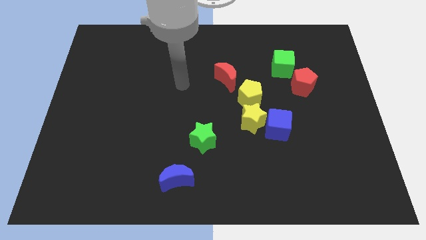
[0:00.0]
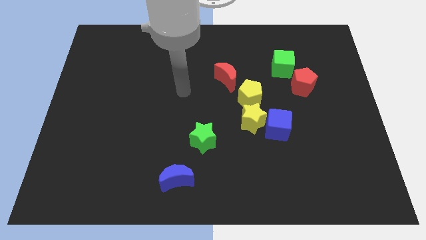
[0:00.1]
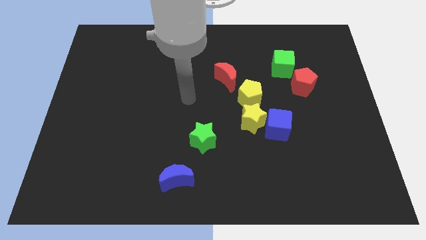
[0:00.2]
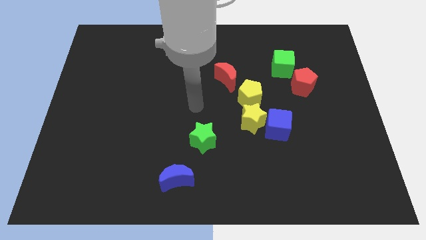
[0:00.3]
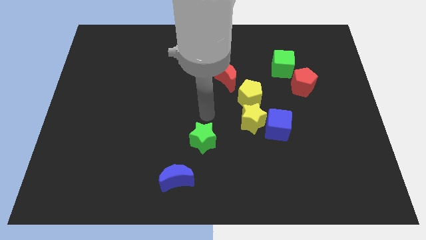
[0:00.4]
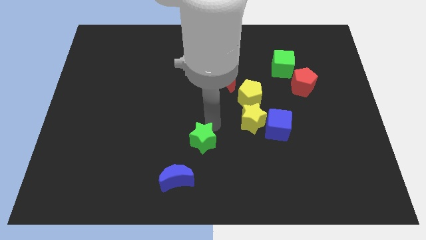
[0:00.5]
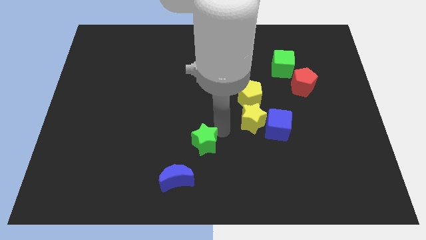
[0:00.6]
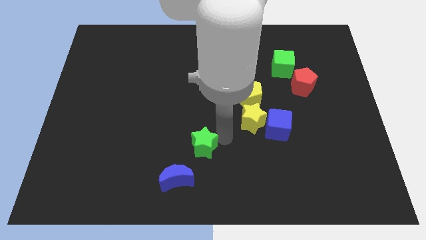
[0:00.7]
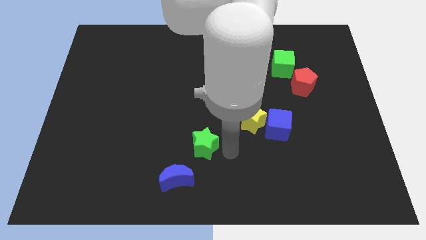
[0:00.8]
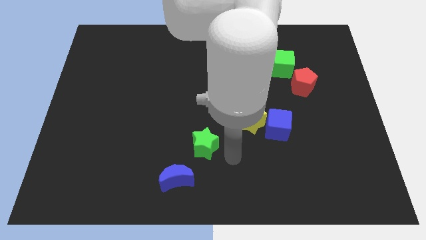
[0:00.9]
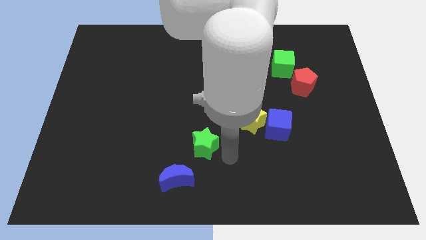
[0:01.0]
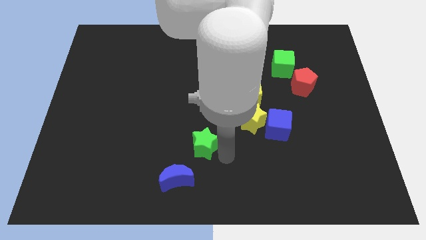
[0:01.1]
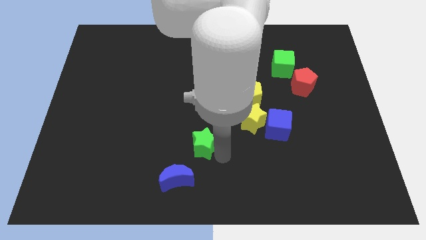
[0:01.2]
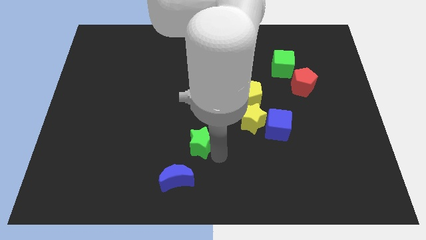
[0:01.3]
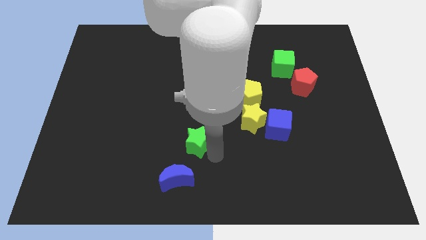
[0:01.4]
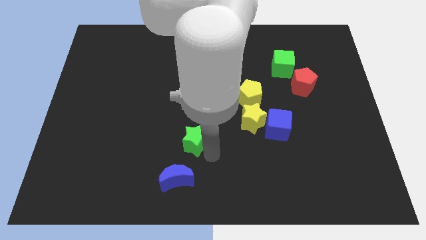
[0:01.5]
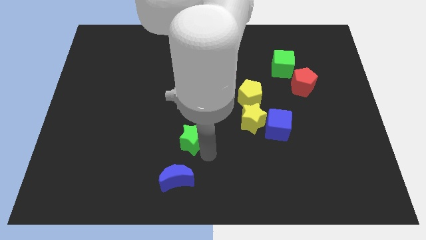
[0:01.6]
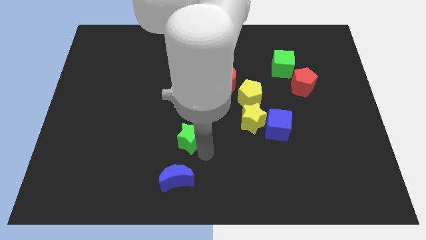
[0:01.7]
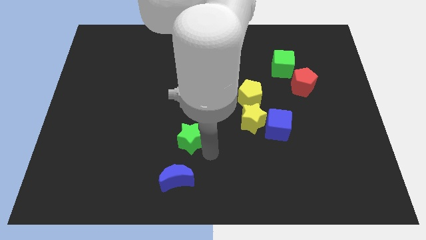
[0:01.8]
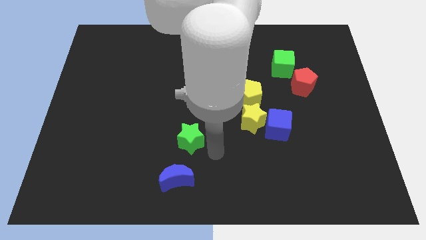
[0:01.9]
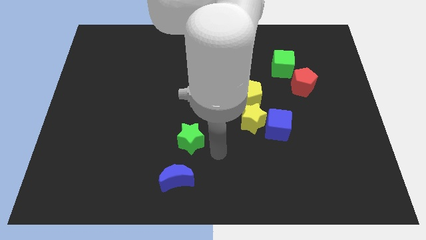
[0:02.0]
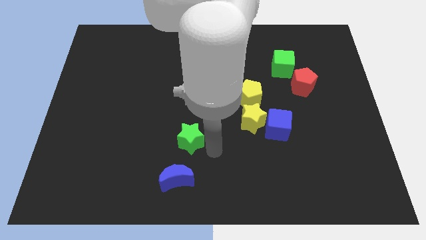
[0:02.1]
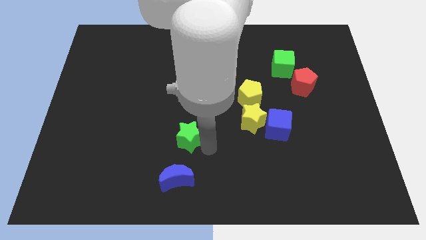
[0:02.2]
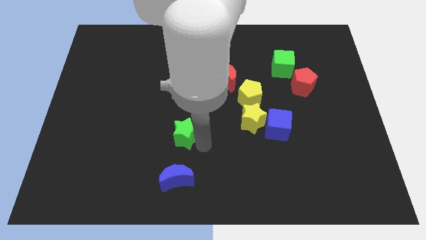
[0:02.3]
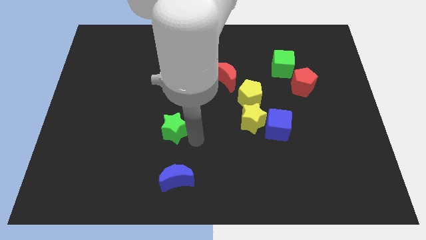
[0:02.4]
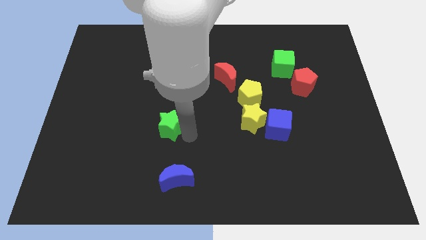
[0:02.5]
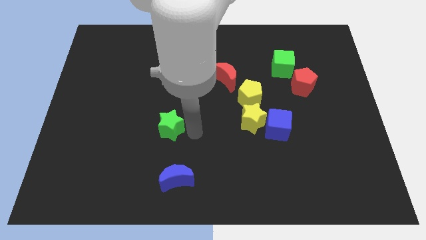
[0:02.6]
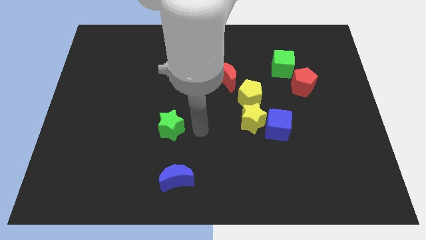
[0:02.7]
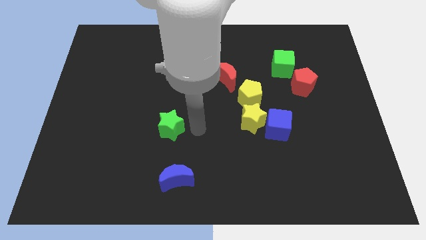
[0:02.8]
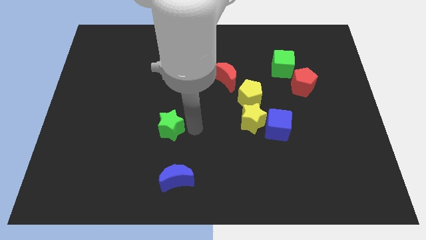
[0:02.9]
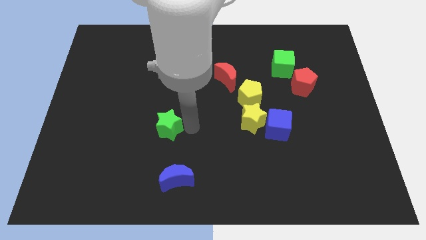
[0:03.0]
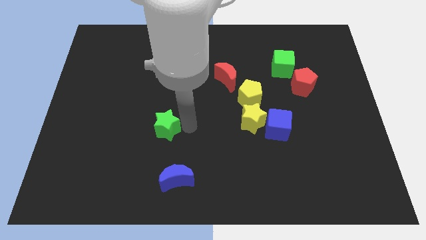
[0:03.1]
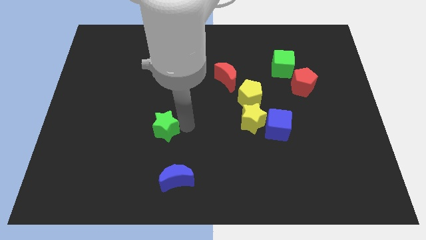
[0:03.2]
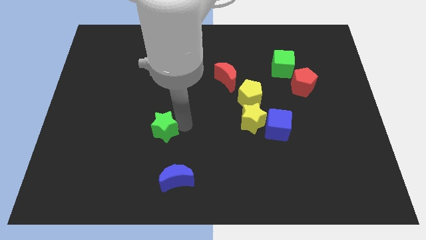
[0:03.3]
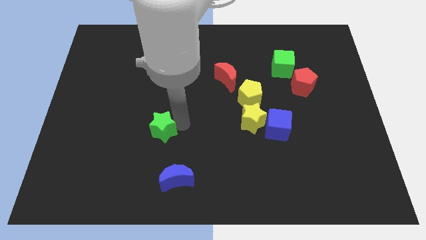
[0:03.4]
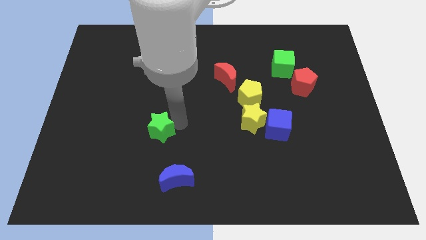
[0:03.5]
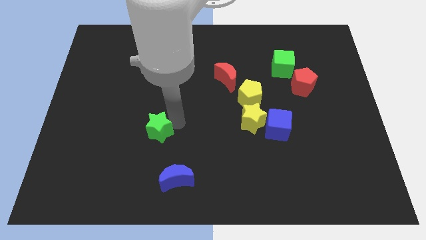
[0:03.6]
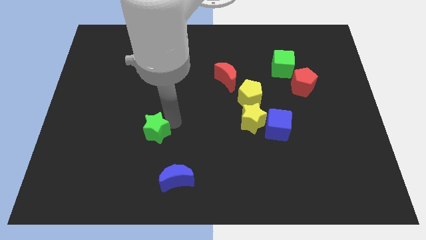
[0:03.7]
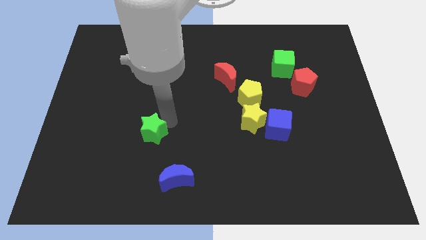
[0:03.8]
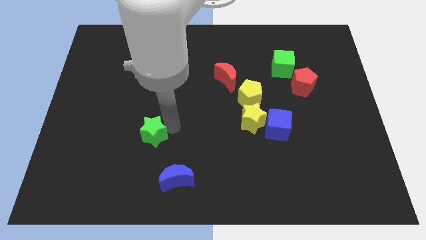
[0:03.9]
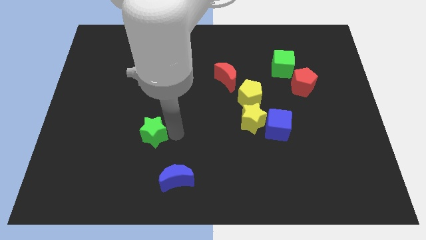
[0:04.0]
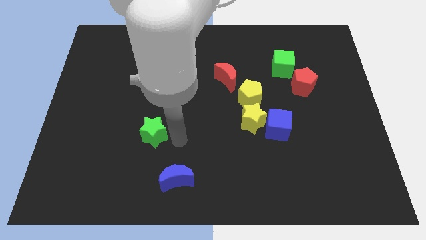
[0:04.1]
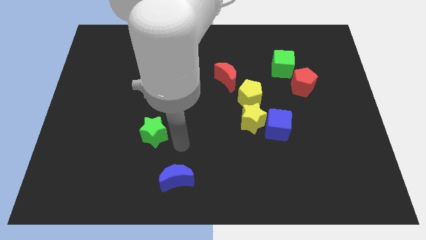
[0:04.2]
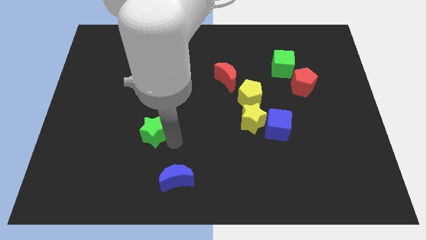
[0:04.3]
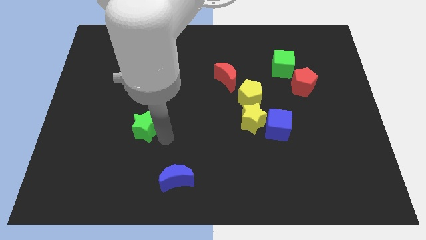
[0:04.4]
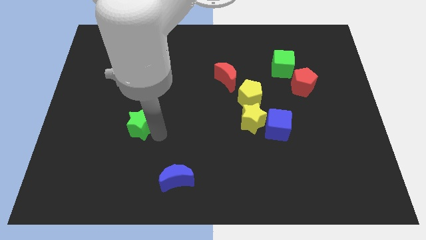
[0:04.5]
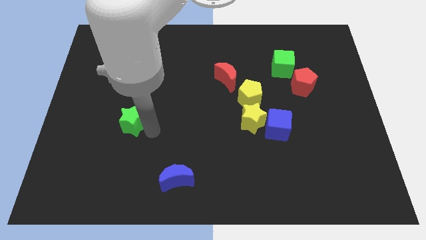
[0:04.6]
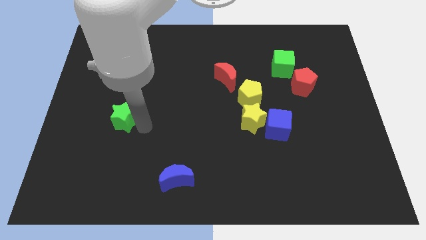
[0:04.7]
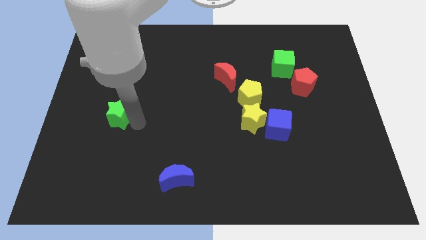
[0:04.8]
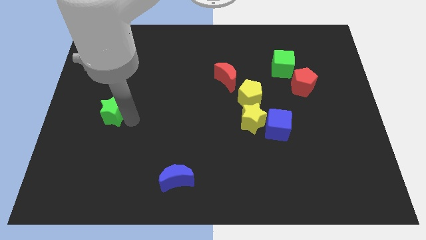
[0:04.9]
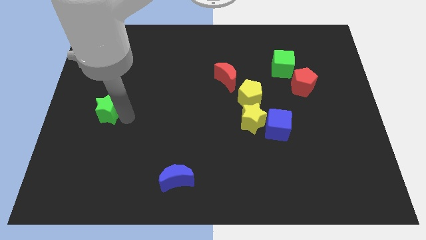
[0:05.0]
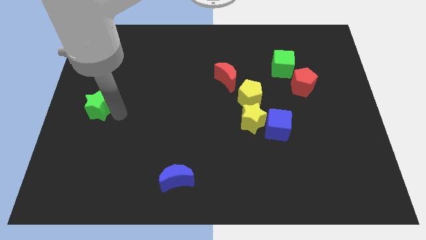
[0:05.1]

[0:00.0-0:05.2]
put the green star to the left side of the board

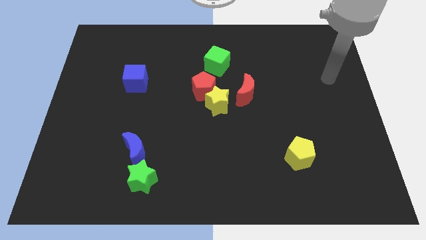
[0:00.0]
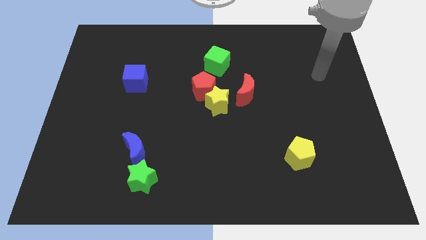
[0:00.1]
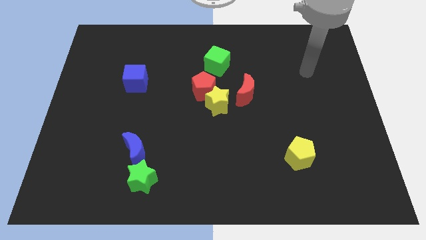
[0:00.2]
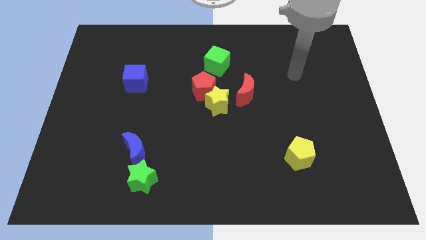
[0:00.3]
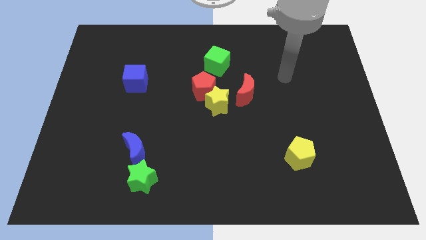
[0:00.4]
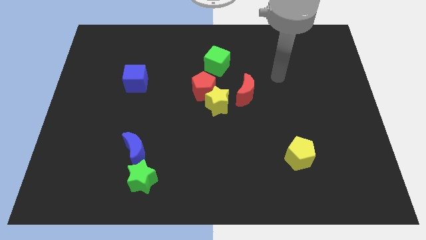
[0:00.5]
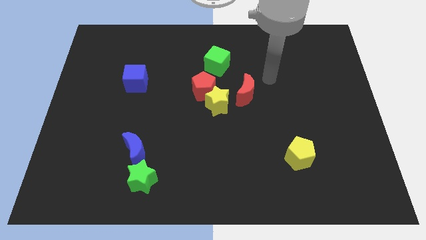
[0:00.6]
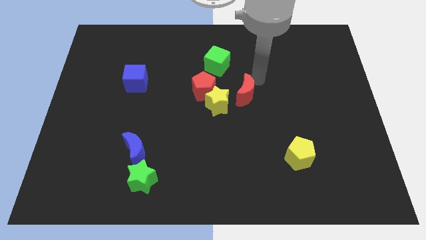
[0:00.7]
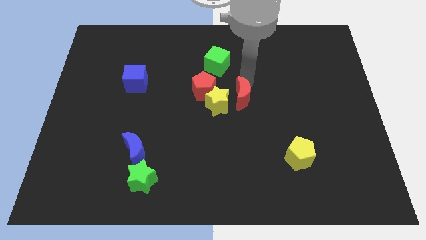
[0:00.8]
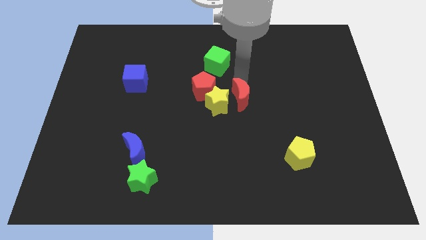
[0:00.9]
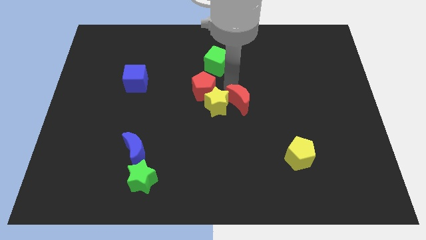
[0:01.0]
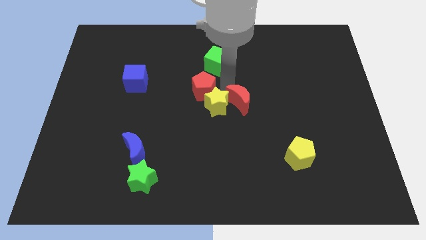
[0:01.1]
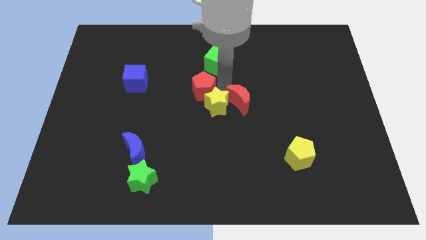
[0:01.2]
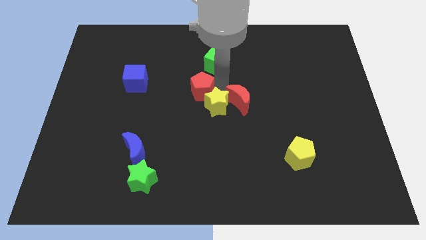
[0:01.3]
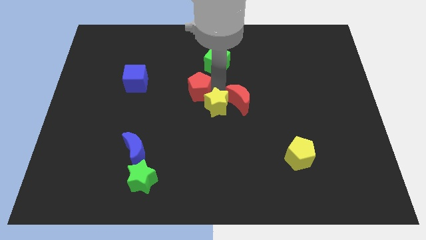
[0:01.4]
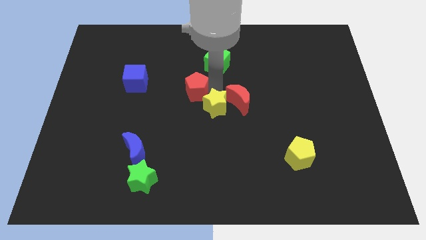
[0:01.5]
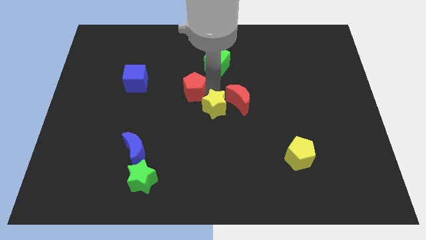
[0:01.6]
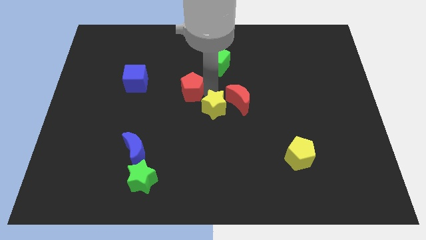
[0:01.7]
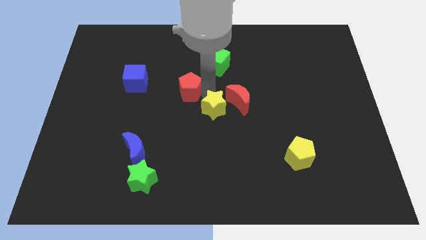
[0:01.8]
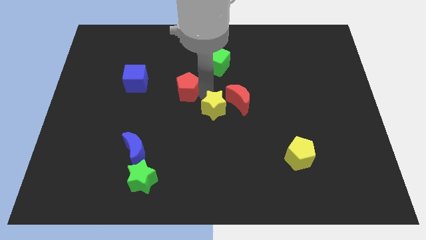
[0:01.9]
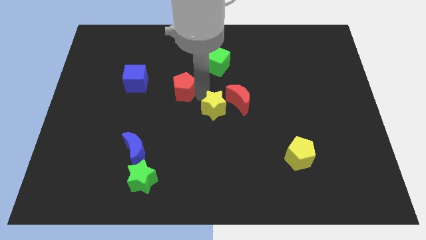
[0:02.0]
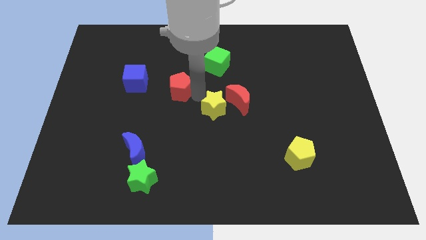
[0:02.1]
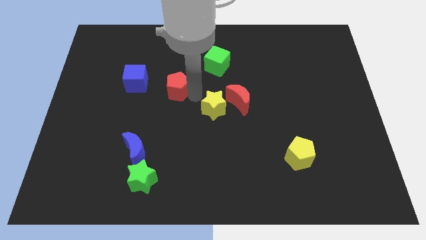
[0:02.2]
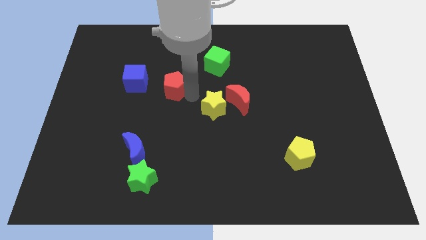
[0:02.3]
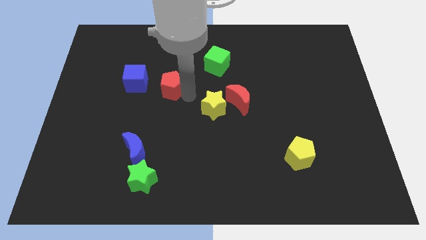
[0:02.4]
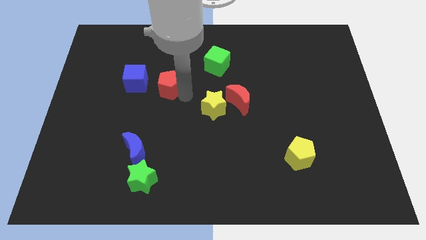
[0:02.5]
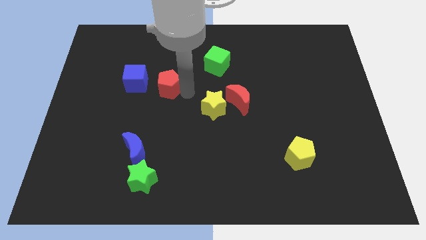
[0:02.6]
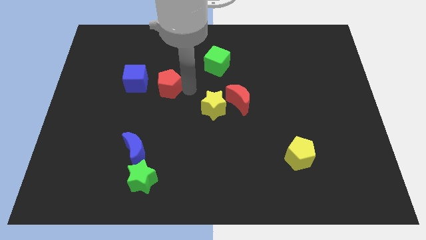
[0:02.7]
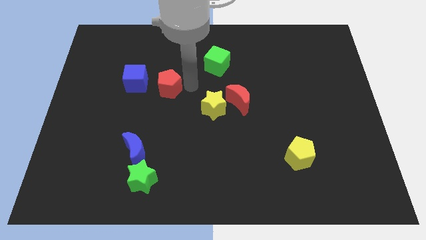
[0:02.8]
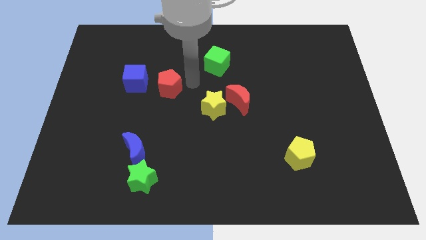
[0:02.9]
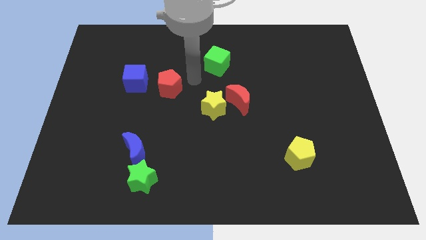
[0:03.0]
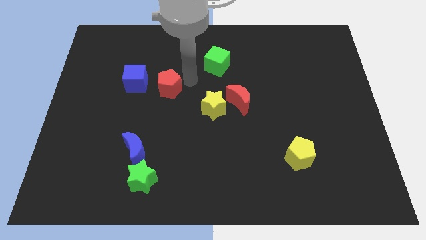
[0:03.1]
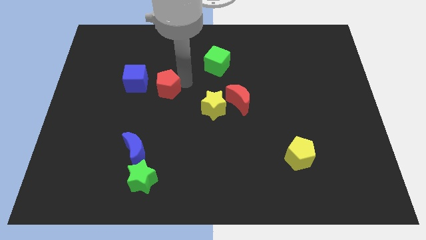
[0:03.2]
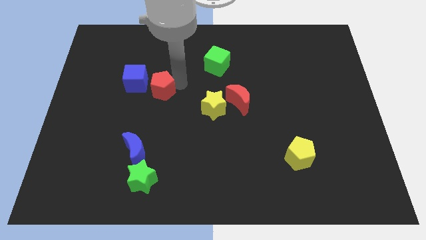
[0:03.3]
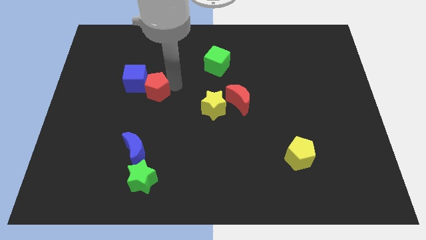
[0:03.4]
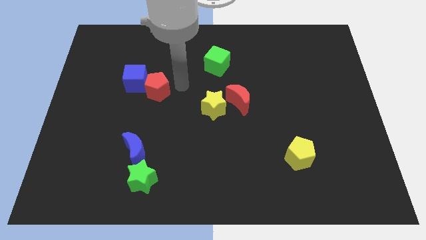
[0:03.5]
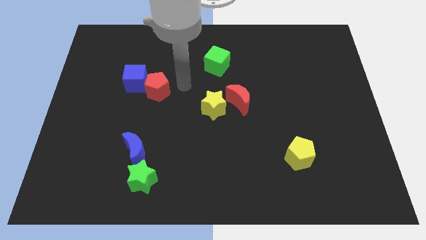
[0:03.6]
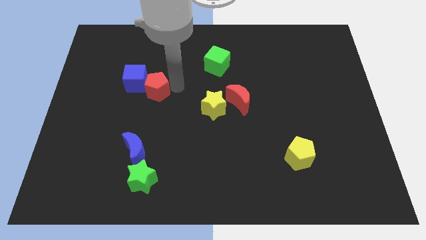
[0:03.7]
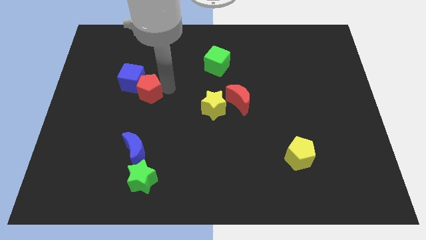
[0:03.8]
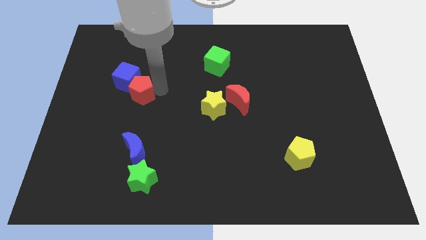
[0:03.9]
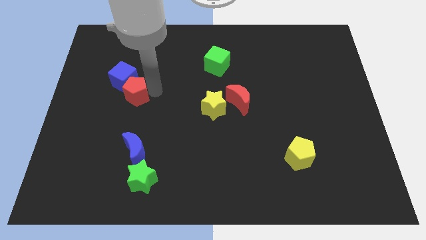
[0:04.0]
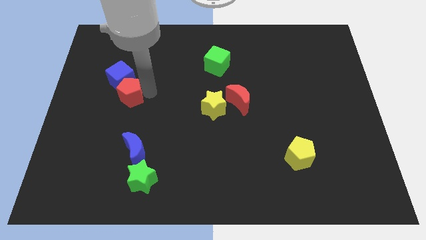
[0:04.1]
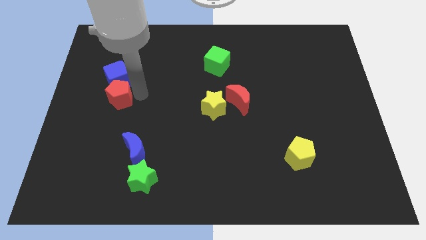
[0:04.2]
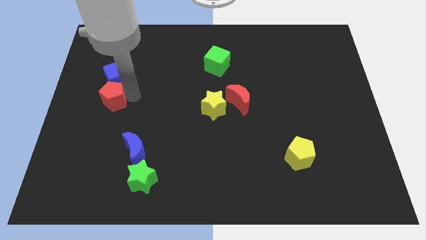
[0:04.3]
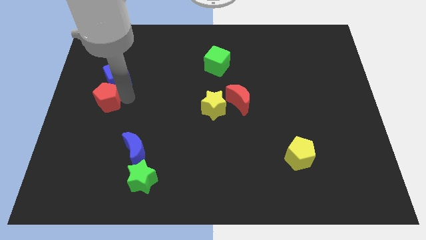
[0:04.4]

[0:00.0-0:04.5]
put the red pentagon to the left side of the board
